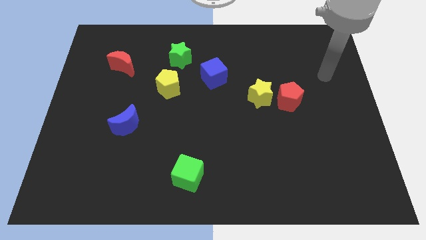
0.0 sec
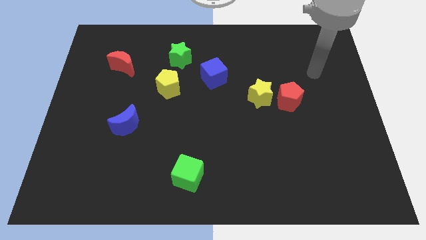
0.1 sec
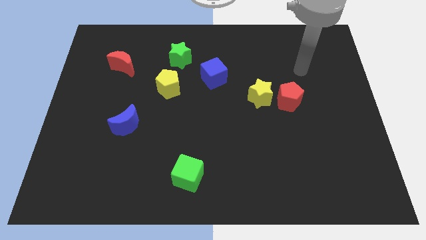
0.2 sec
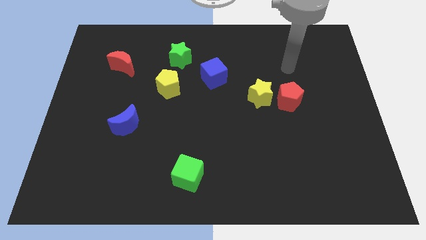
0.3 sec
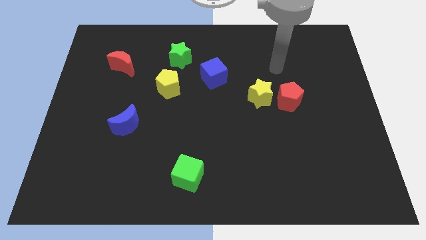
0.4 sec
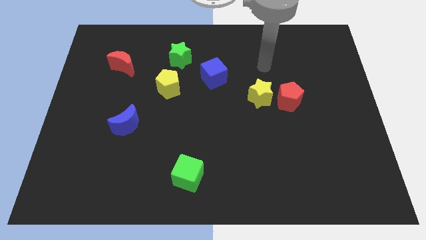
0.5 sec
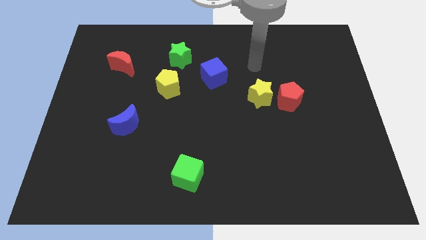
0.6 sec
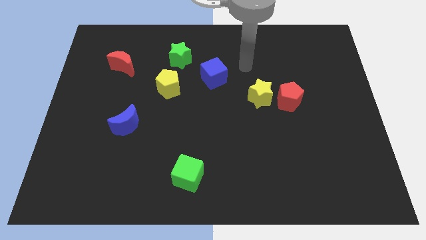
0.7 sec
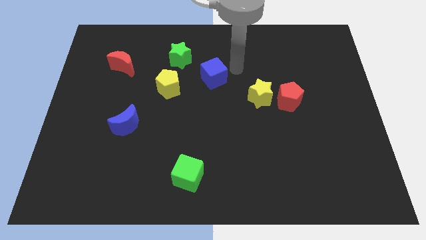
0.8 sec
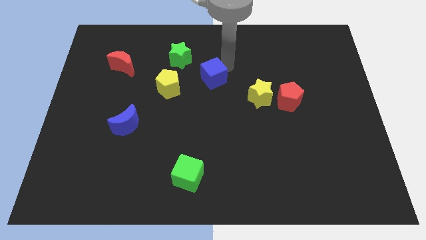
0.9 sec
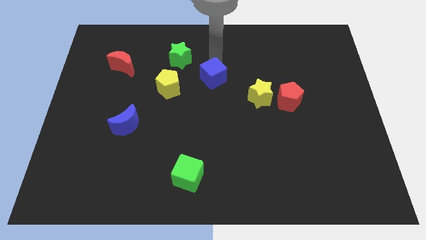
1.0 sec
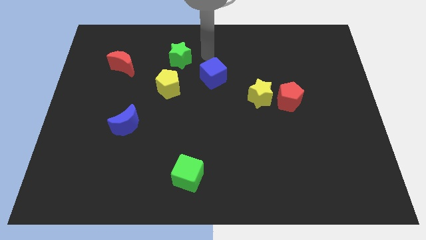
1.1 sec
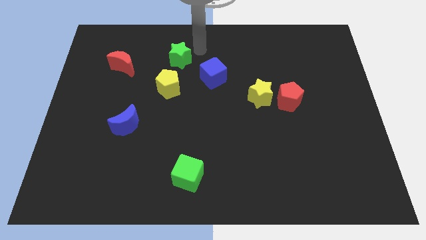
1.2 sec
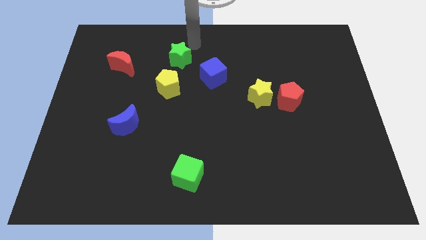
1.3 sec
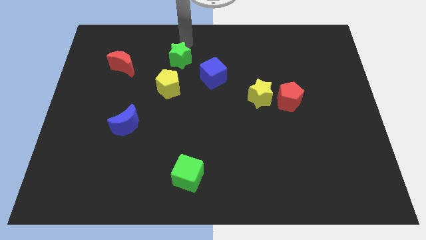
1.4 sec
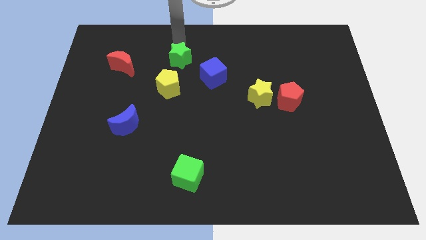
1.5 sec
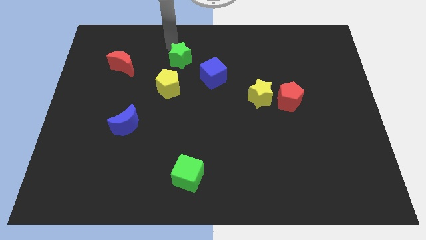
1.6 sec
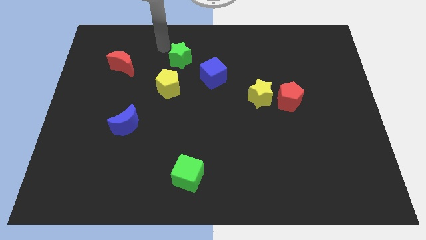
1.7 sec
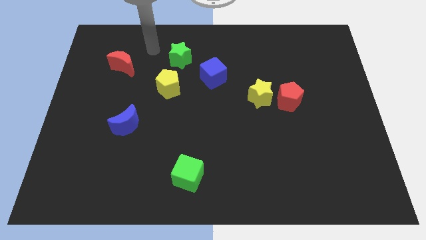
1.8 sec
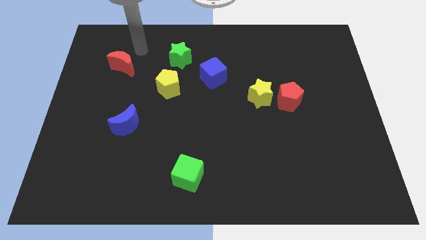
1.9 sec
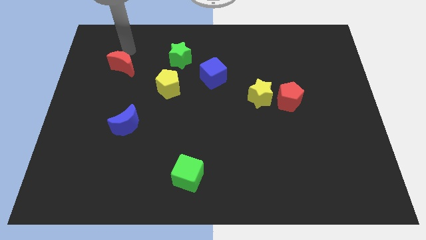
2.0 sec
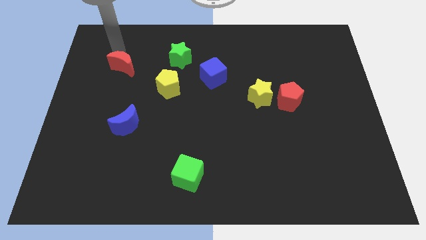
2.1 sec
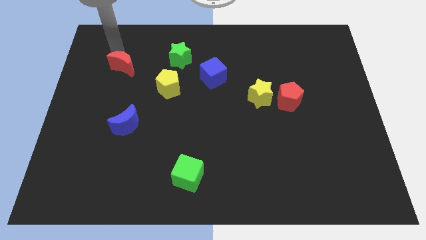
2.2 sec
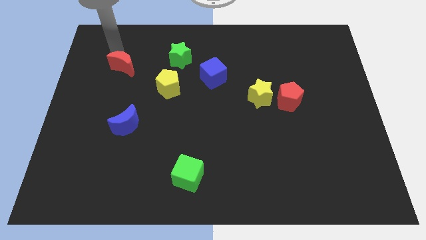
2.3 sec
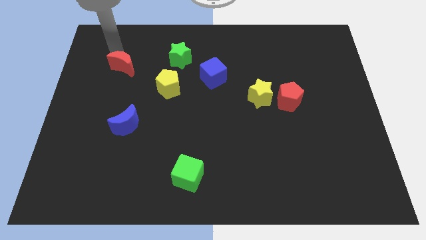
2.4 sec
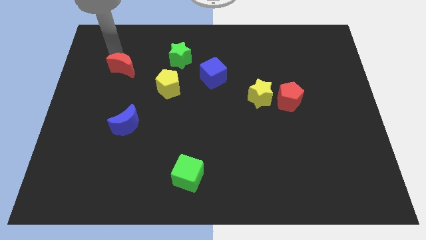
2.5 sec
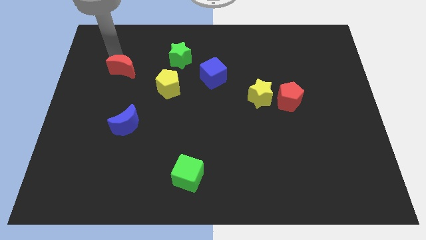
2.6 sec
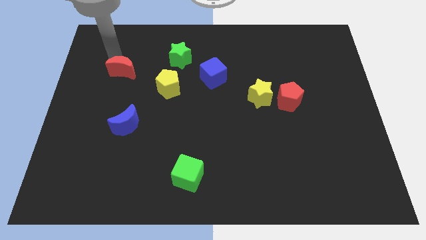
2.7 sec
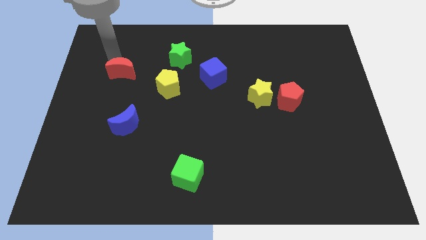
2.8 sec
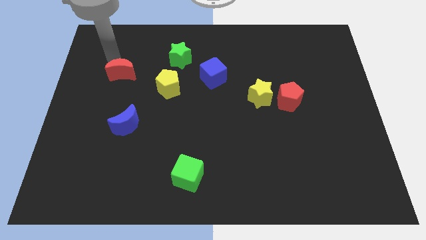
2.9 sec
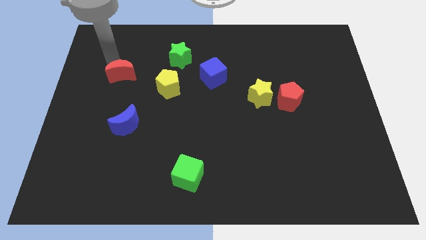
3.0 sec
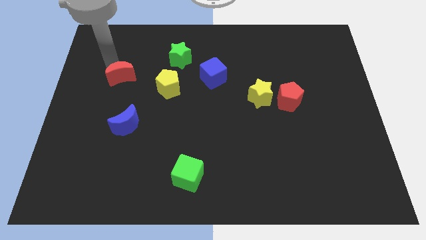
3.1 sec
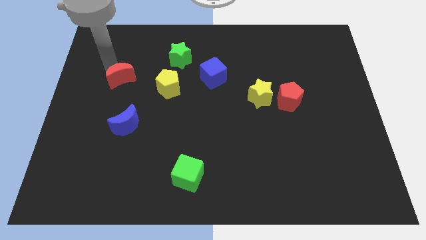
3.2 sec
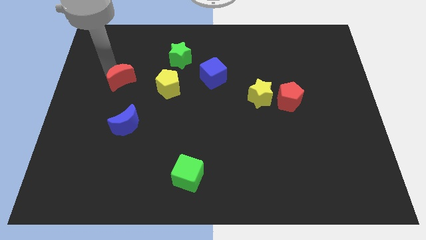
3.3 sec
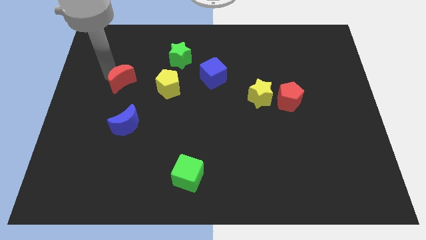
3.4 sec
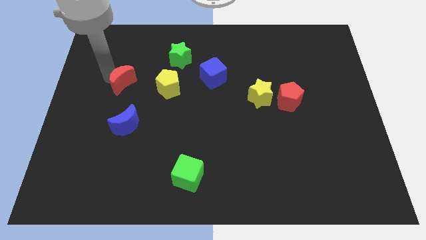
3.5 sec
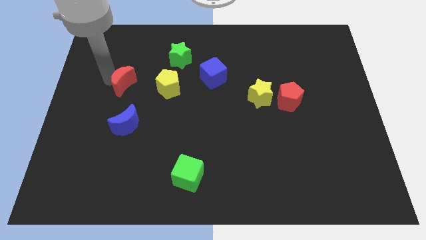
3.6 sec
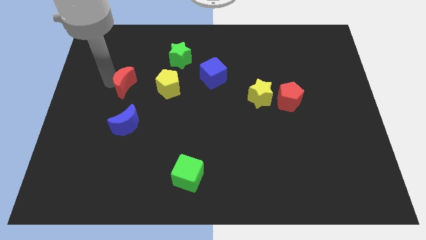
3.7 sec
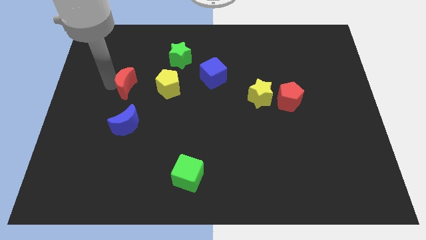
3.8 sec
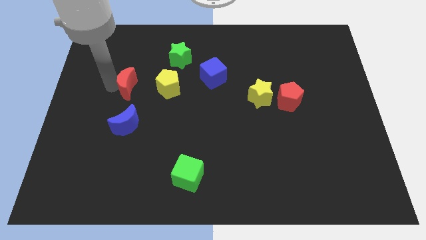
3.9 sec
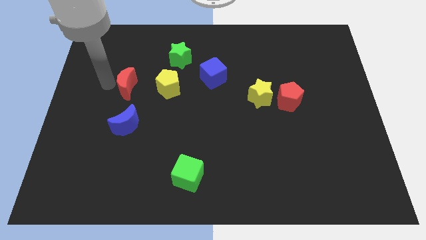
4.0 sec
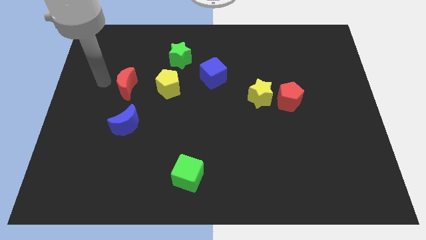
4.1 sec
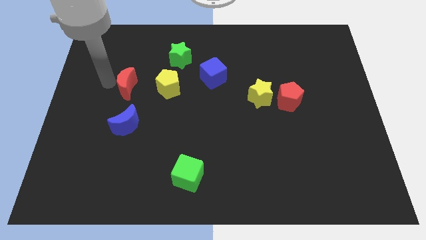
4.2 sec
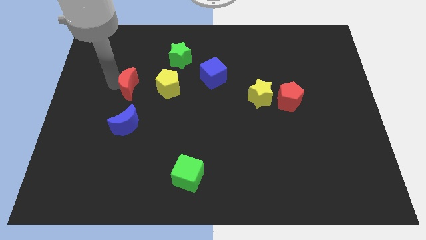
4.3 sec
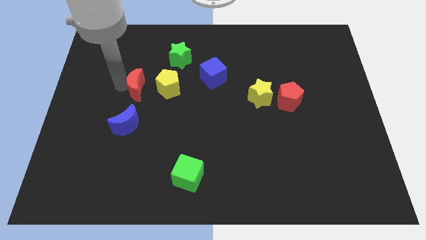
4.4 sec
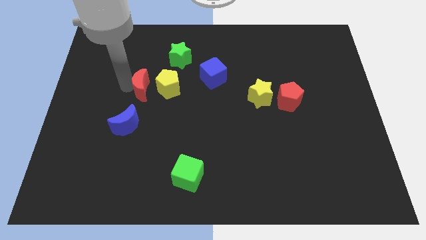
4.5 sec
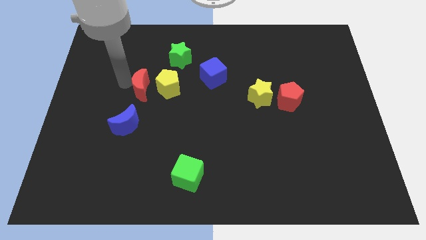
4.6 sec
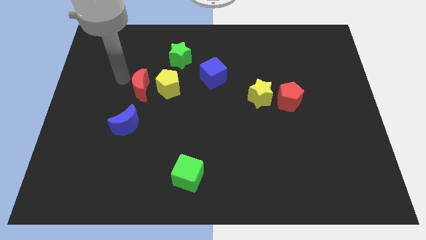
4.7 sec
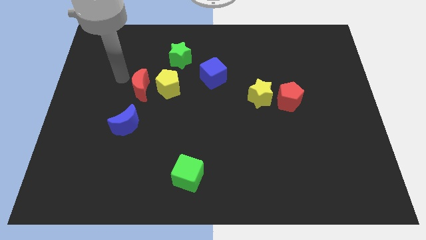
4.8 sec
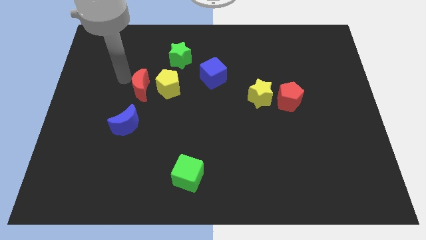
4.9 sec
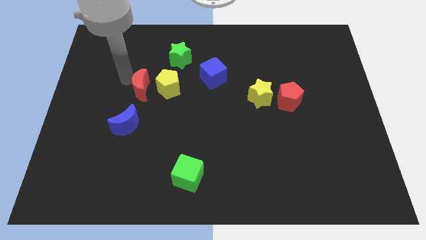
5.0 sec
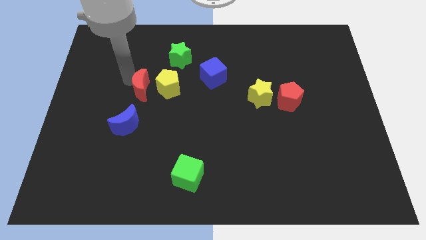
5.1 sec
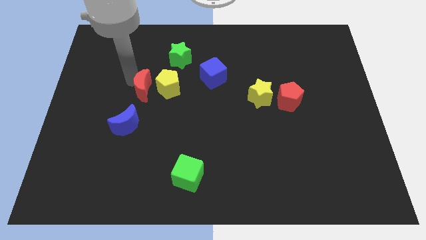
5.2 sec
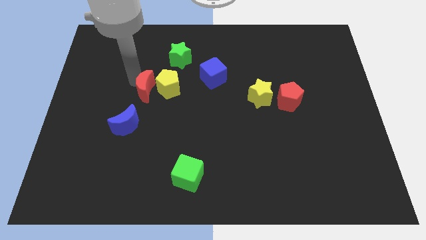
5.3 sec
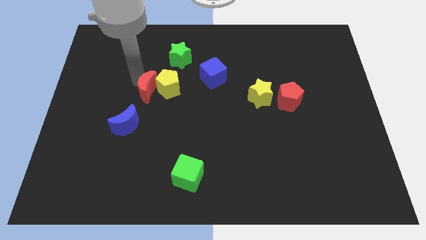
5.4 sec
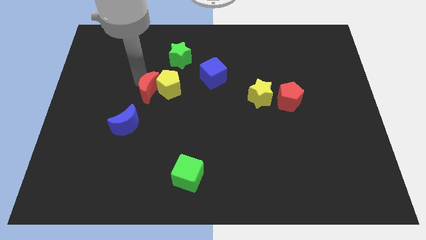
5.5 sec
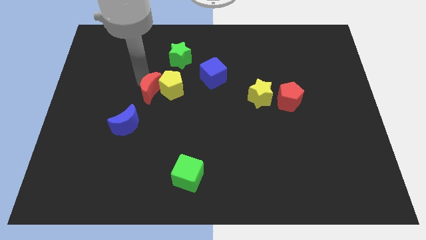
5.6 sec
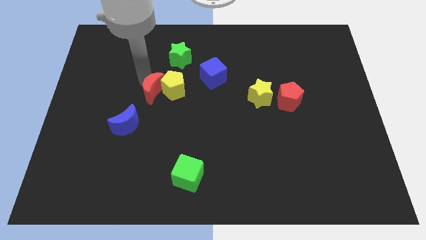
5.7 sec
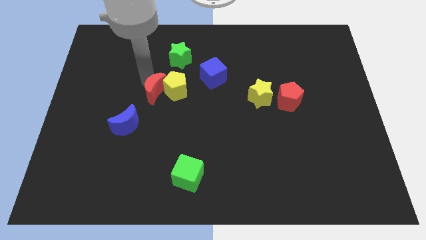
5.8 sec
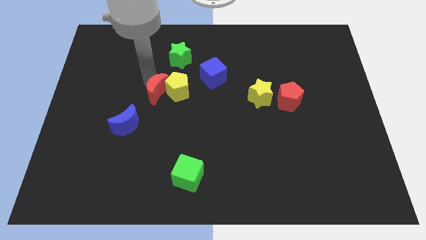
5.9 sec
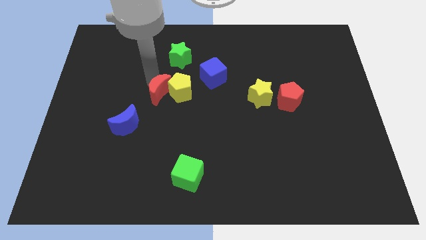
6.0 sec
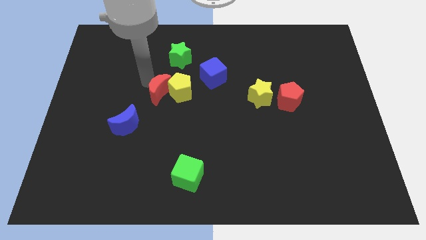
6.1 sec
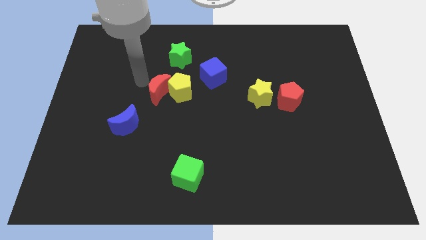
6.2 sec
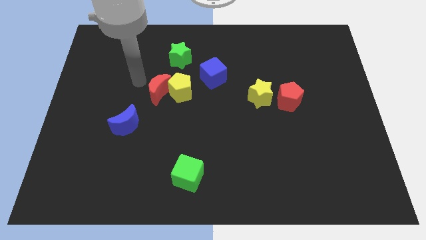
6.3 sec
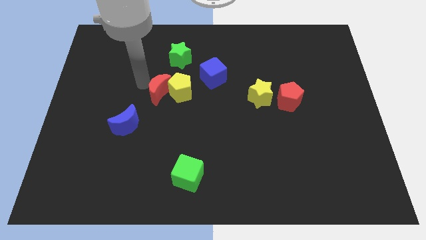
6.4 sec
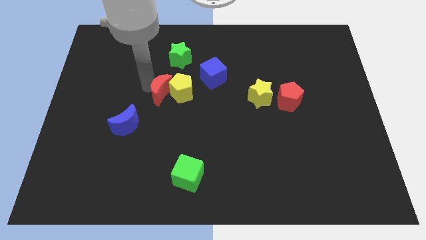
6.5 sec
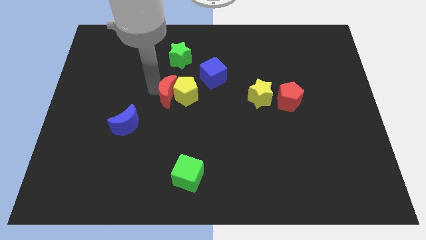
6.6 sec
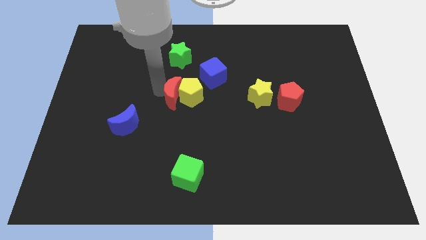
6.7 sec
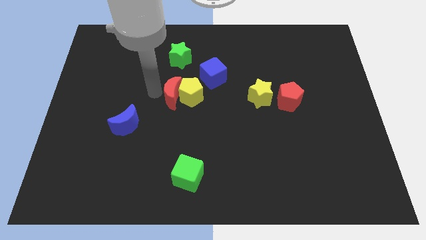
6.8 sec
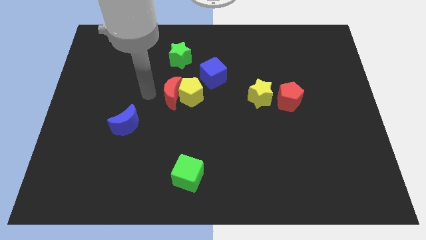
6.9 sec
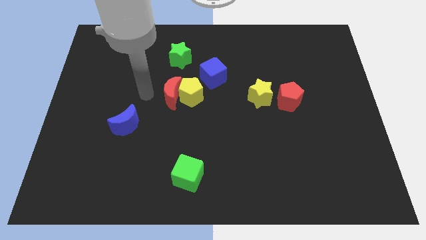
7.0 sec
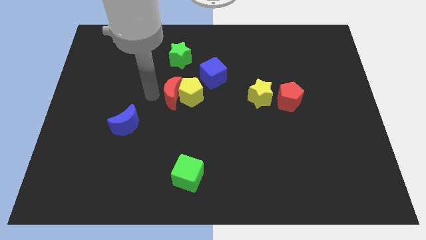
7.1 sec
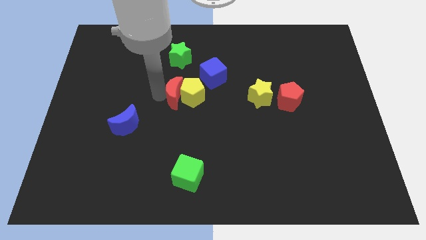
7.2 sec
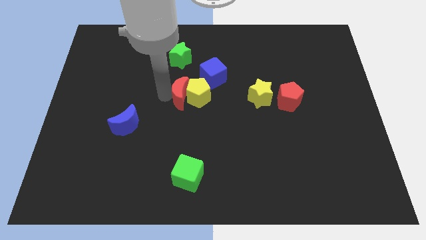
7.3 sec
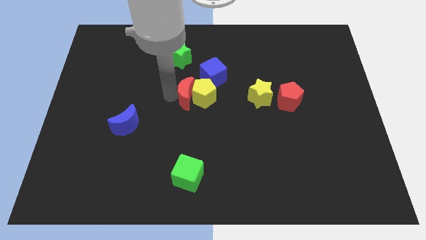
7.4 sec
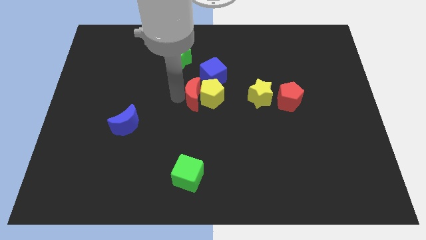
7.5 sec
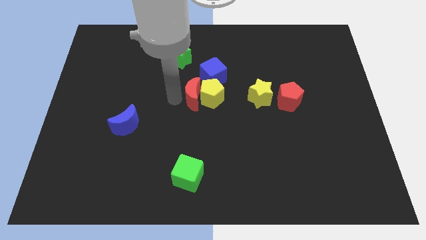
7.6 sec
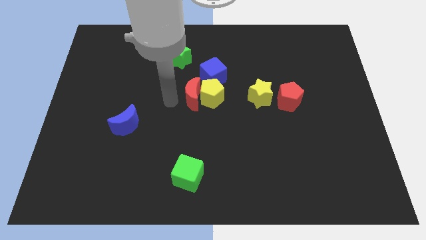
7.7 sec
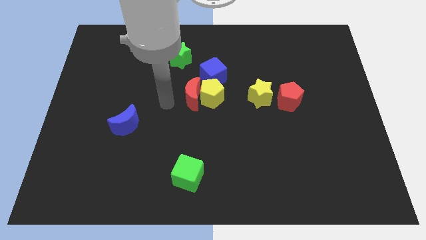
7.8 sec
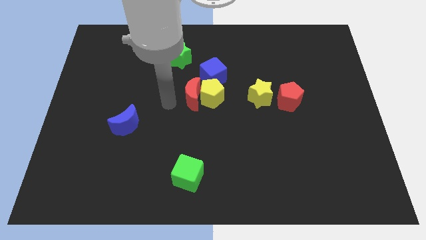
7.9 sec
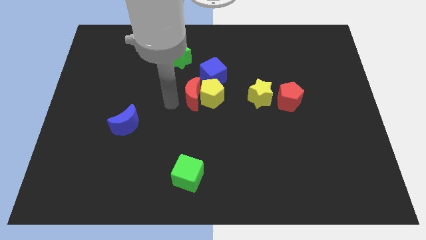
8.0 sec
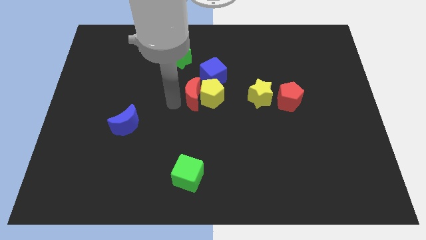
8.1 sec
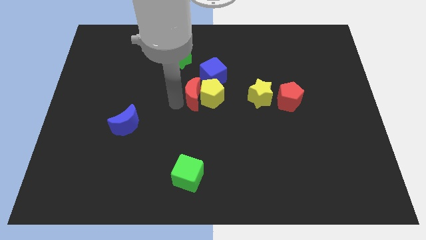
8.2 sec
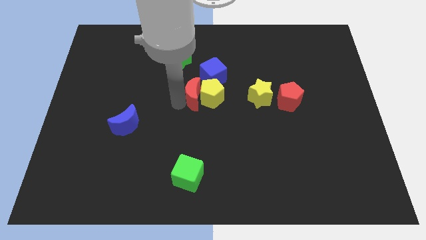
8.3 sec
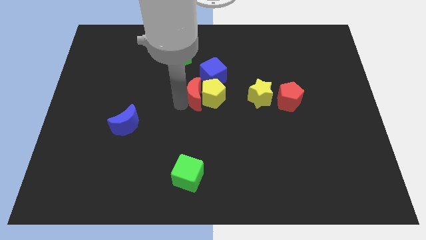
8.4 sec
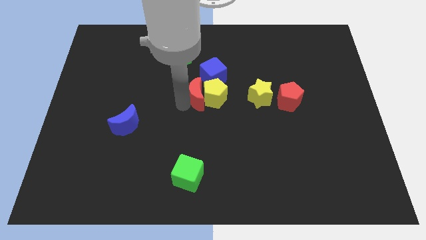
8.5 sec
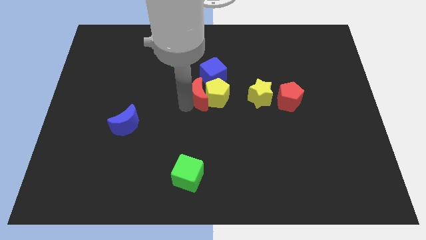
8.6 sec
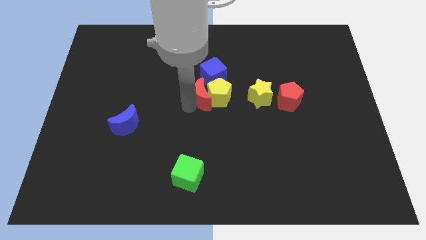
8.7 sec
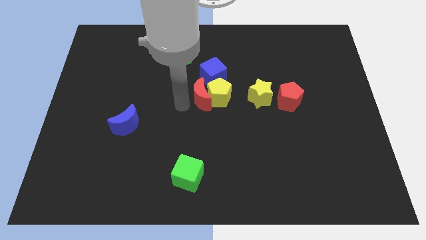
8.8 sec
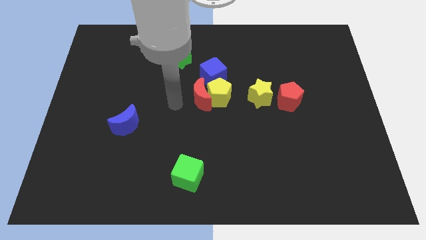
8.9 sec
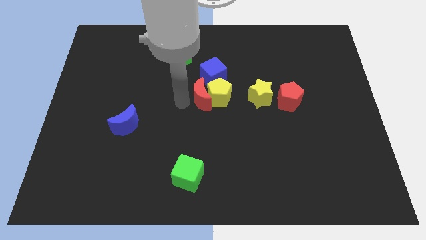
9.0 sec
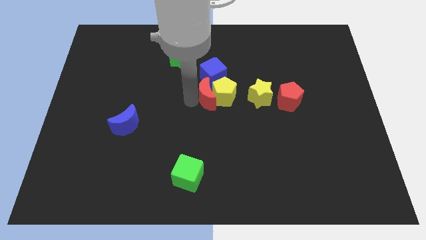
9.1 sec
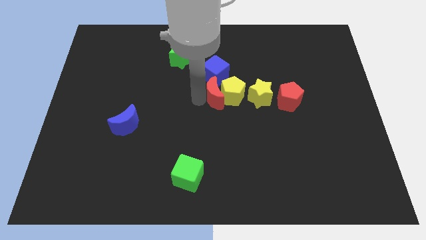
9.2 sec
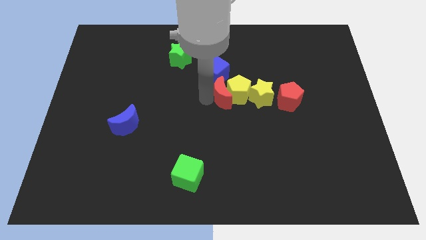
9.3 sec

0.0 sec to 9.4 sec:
slide the red moon to the bottom right of the blue cube
